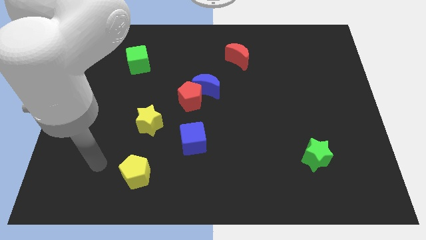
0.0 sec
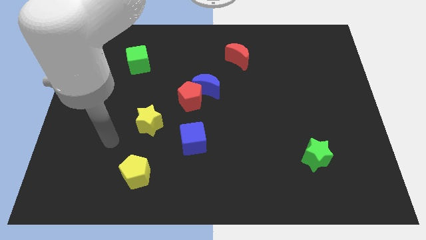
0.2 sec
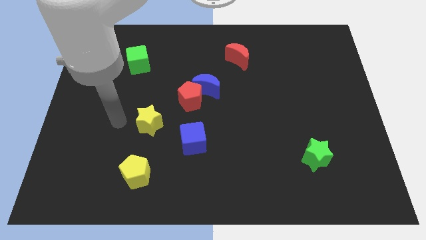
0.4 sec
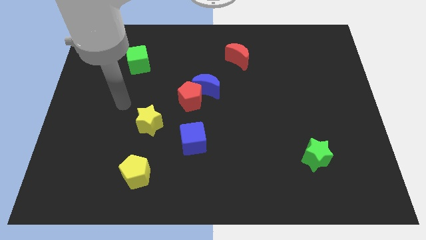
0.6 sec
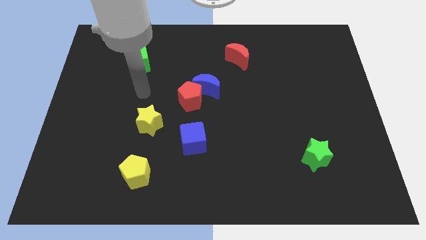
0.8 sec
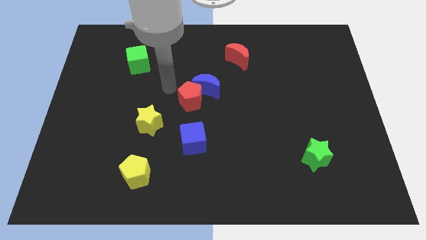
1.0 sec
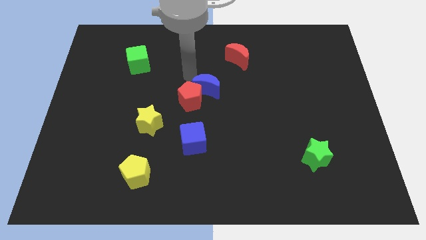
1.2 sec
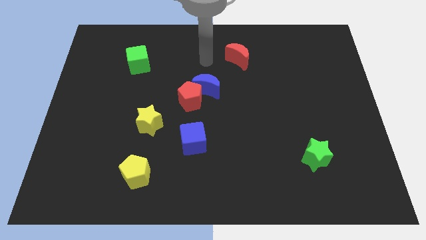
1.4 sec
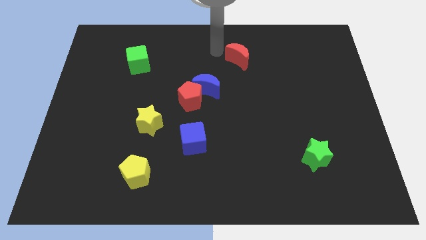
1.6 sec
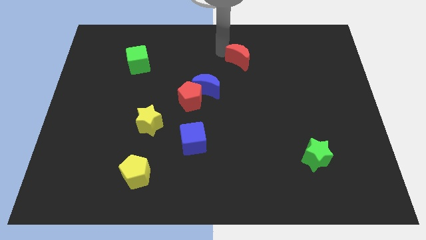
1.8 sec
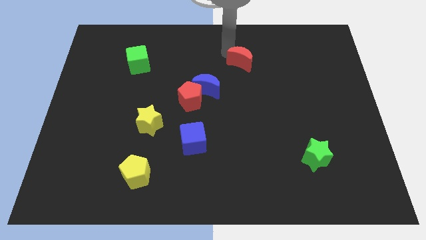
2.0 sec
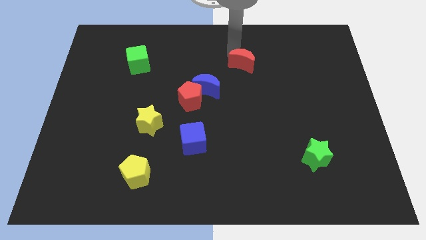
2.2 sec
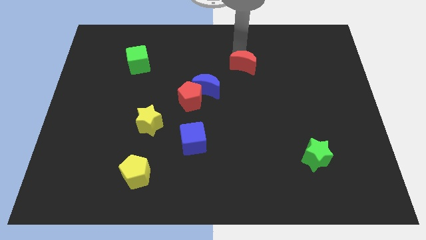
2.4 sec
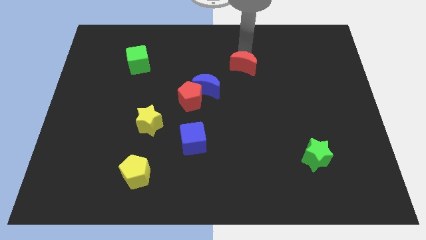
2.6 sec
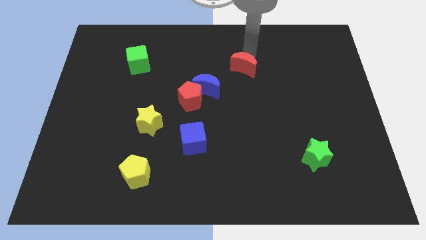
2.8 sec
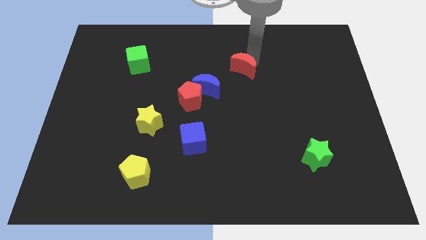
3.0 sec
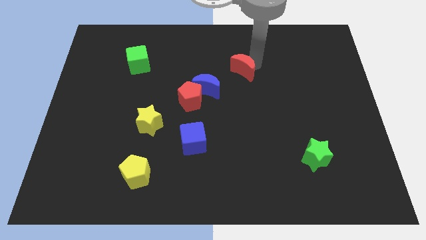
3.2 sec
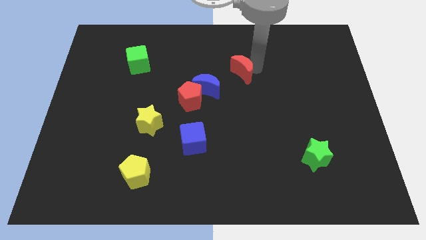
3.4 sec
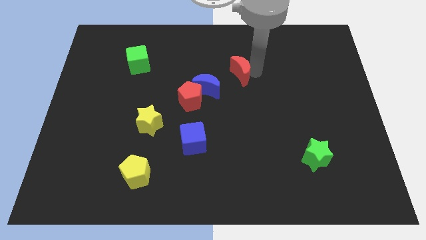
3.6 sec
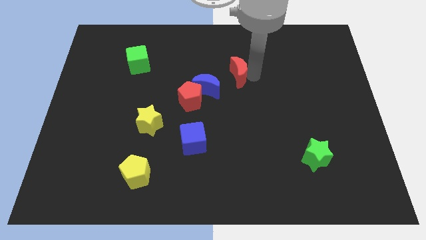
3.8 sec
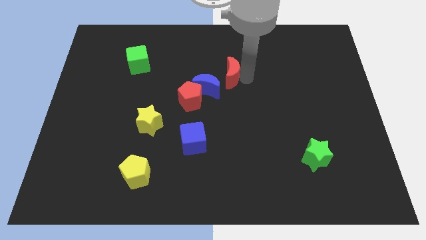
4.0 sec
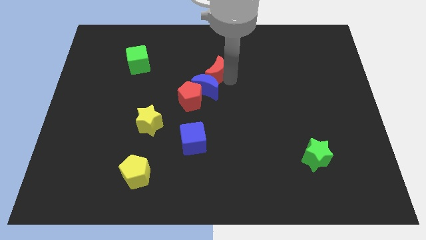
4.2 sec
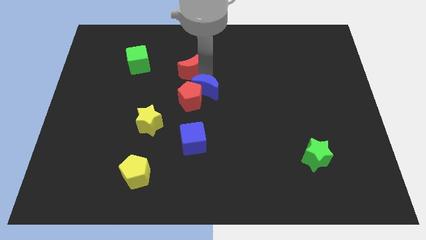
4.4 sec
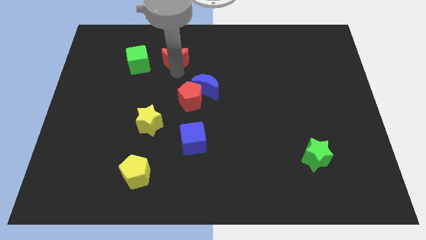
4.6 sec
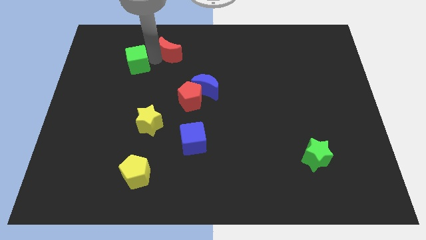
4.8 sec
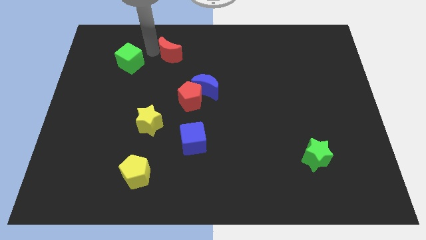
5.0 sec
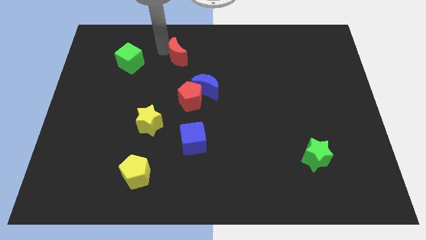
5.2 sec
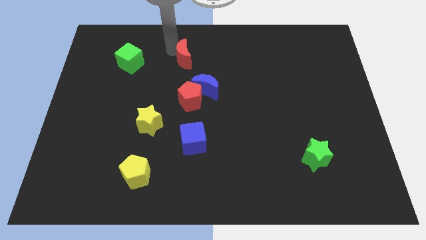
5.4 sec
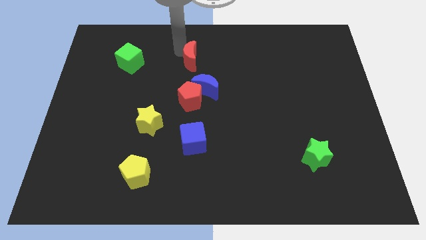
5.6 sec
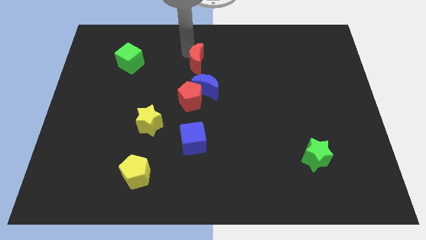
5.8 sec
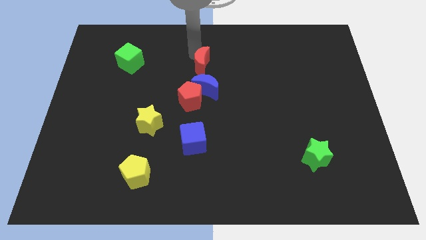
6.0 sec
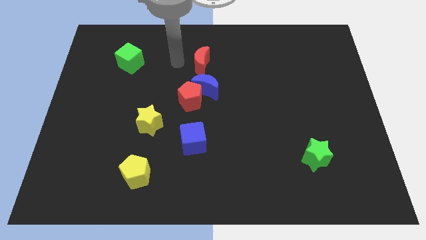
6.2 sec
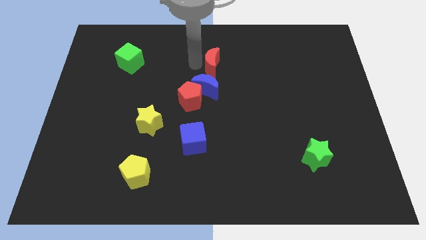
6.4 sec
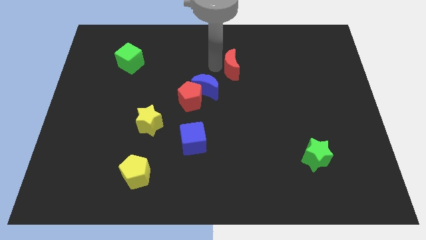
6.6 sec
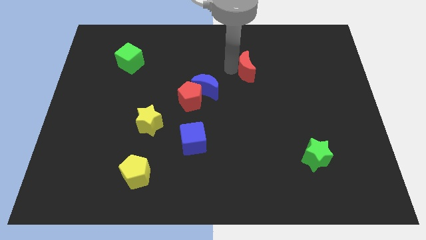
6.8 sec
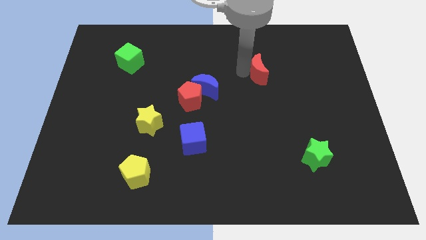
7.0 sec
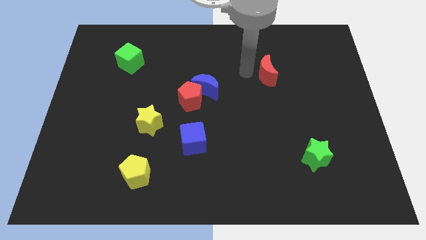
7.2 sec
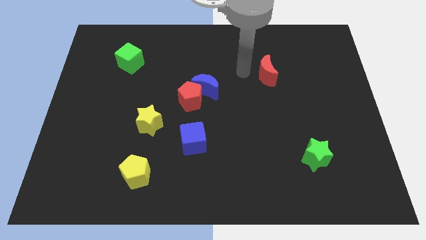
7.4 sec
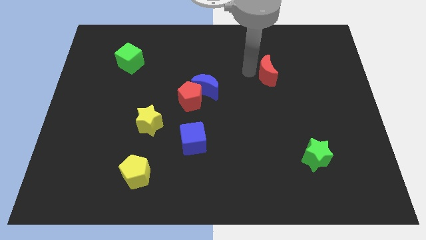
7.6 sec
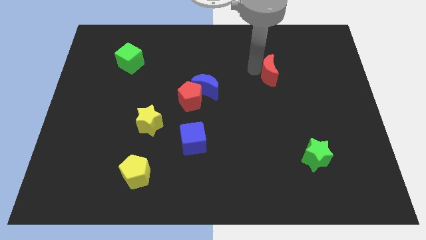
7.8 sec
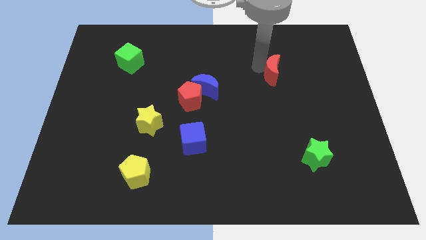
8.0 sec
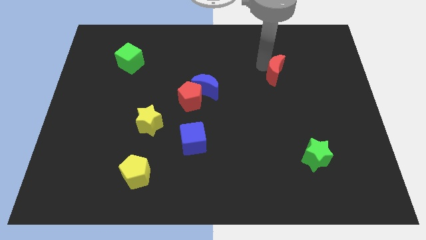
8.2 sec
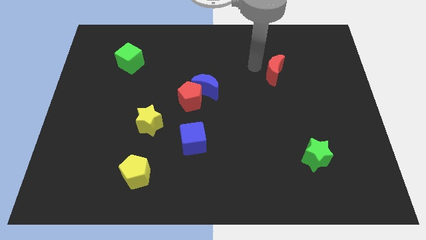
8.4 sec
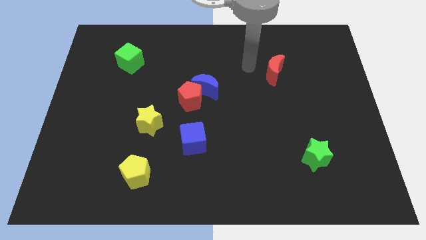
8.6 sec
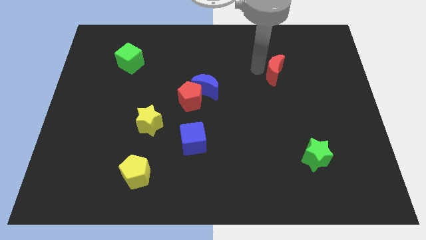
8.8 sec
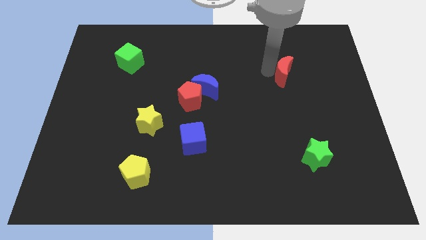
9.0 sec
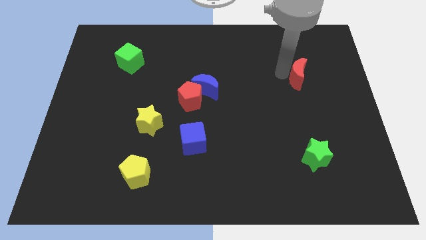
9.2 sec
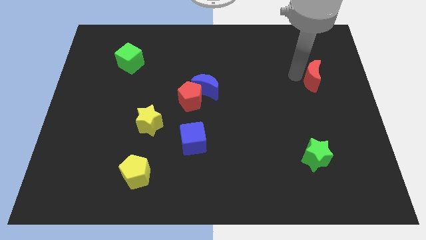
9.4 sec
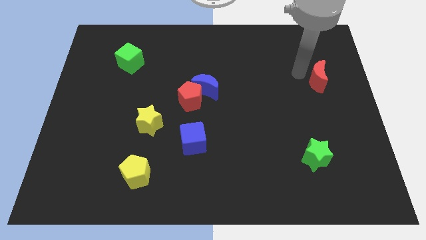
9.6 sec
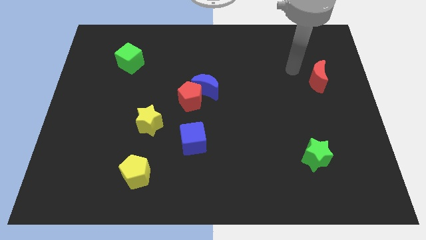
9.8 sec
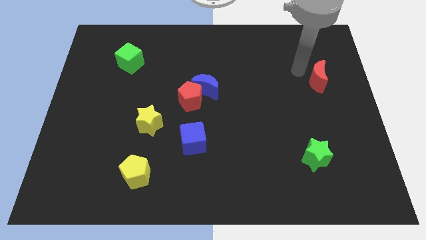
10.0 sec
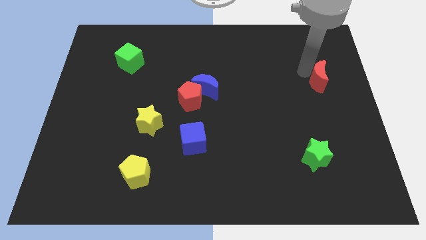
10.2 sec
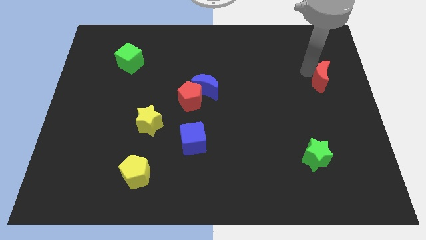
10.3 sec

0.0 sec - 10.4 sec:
push the red moon to the right side

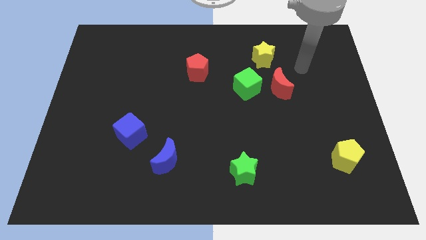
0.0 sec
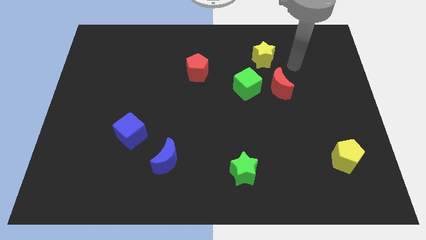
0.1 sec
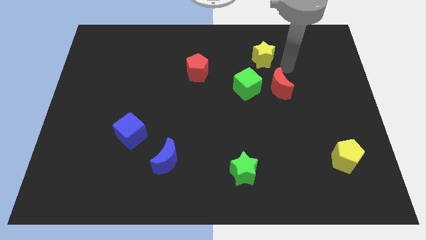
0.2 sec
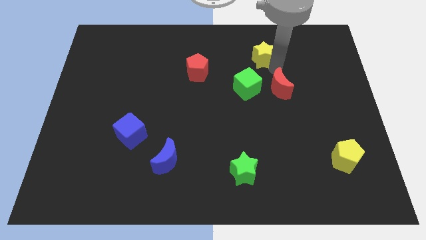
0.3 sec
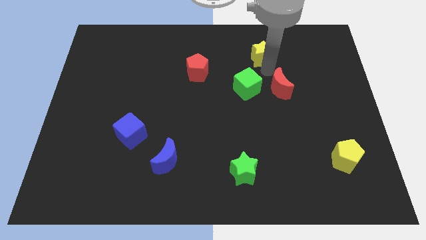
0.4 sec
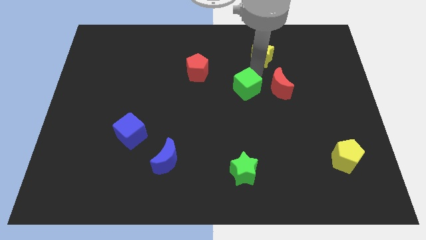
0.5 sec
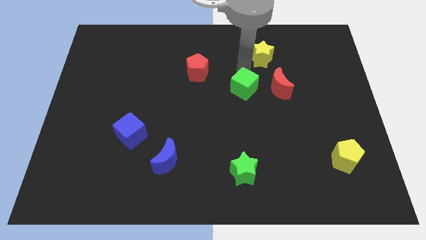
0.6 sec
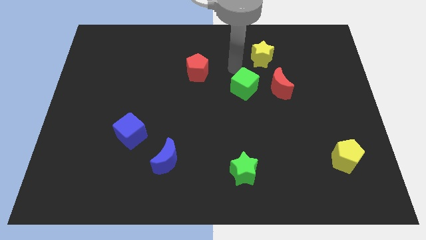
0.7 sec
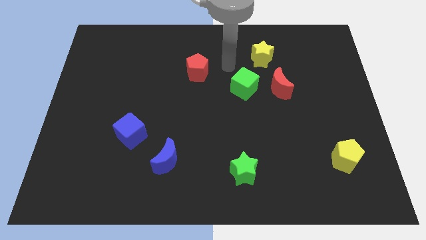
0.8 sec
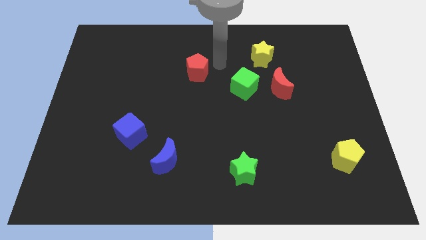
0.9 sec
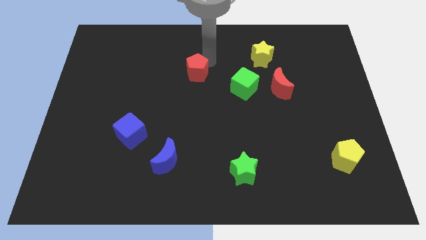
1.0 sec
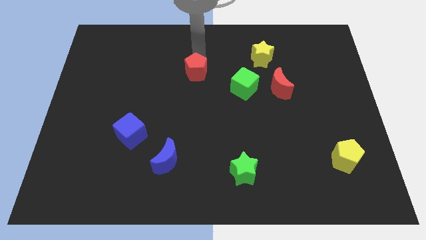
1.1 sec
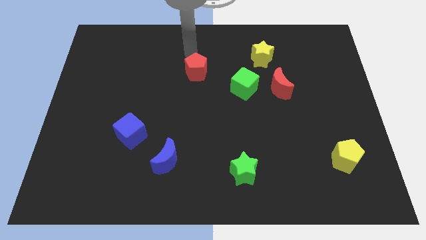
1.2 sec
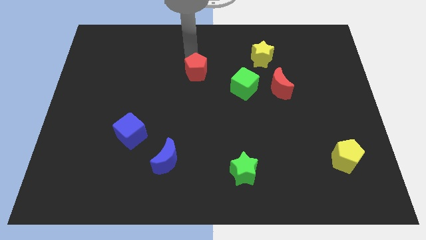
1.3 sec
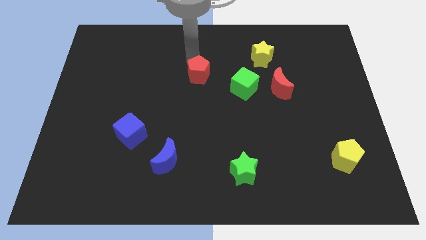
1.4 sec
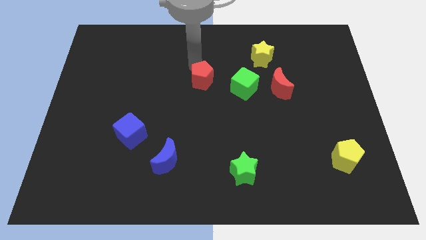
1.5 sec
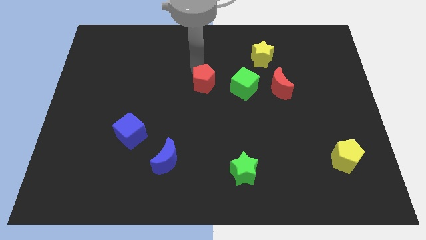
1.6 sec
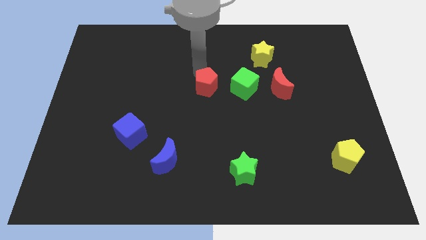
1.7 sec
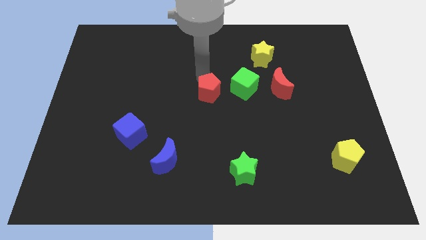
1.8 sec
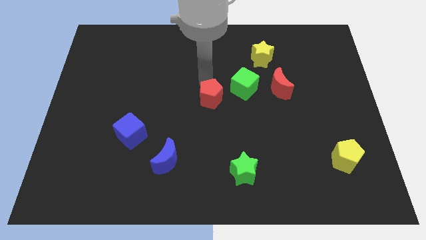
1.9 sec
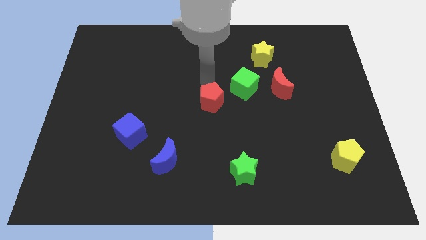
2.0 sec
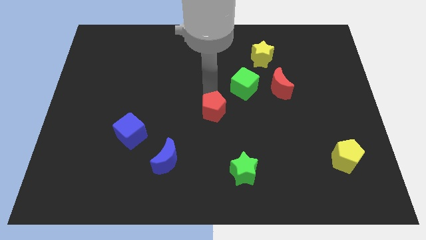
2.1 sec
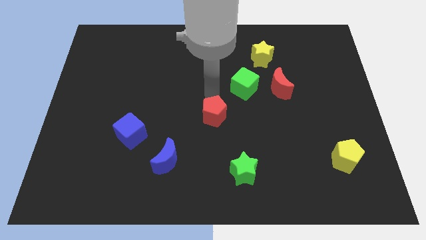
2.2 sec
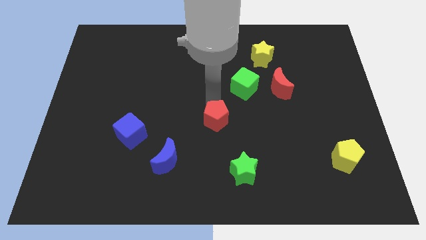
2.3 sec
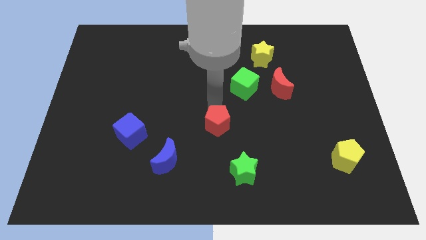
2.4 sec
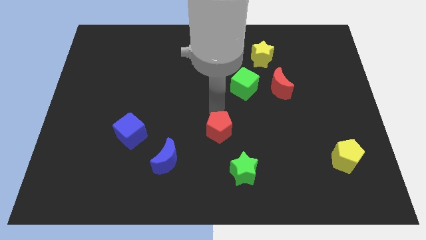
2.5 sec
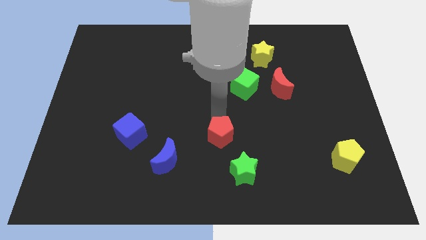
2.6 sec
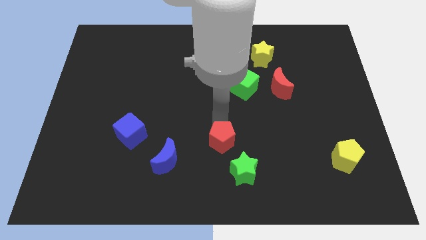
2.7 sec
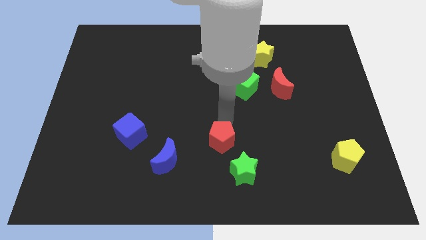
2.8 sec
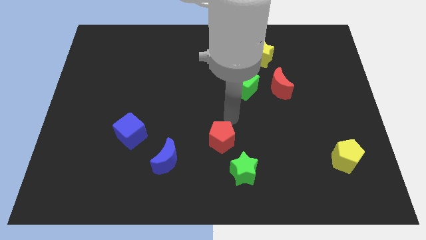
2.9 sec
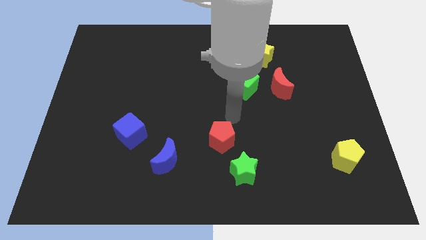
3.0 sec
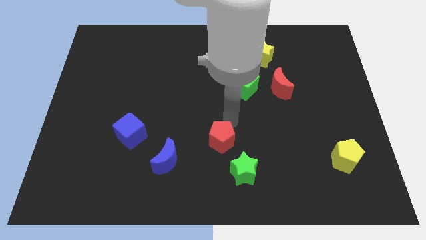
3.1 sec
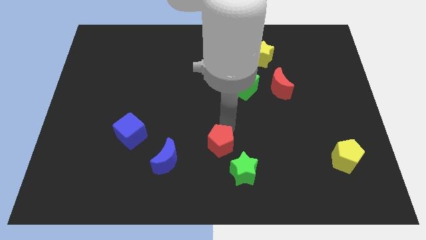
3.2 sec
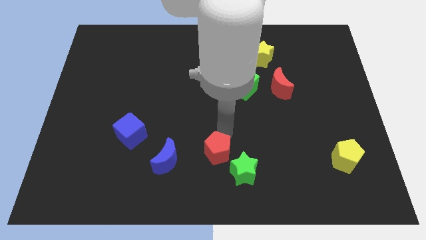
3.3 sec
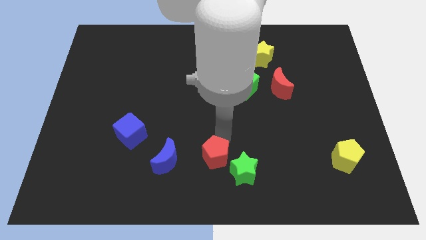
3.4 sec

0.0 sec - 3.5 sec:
move the red pentagon to the bottom side
